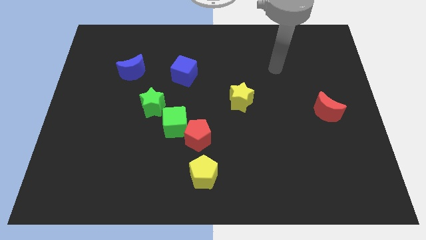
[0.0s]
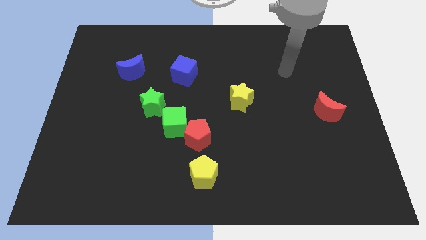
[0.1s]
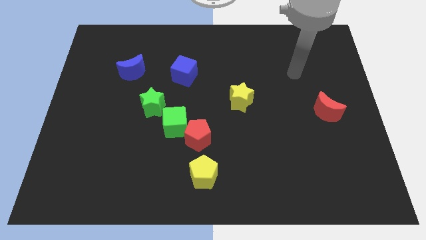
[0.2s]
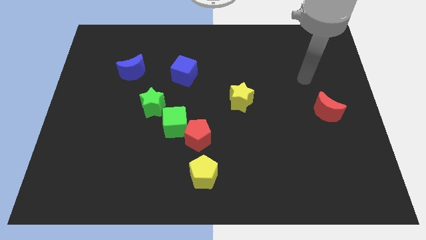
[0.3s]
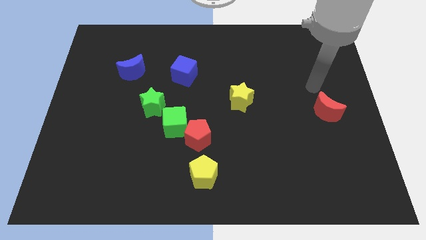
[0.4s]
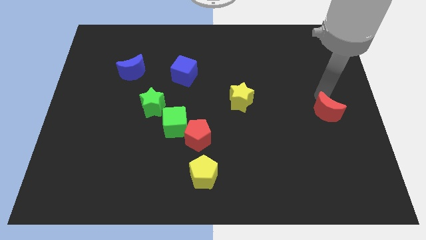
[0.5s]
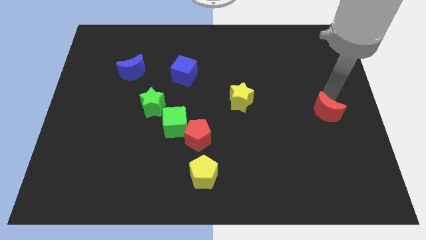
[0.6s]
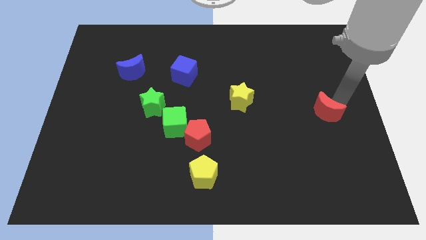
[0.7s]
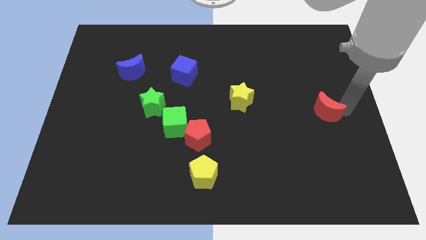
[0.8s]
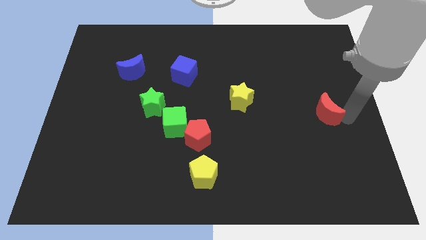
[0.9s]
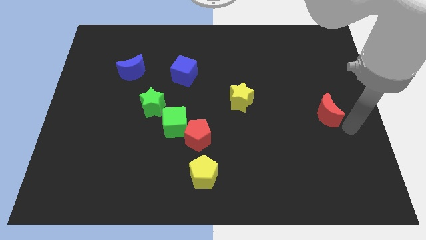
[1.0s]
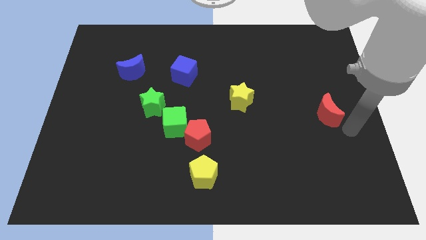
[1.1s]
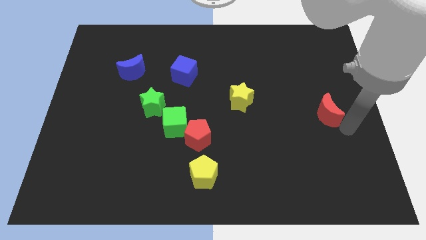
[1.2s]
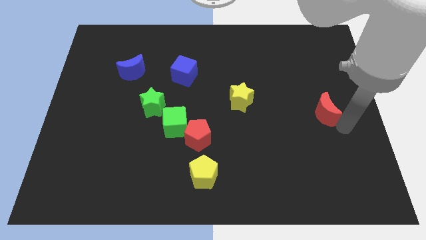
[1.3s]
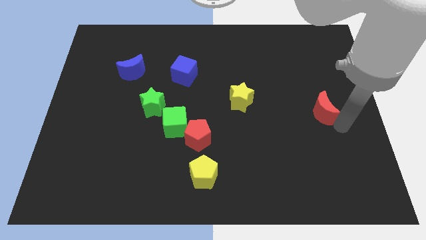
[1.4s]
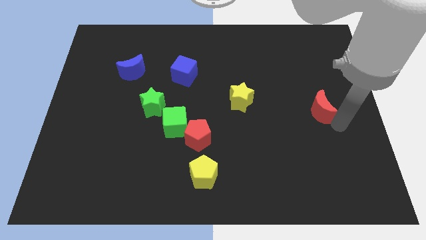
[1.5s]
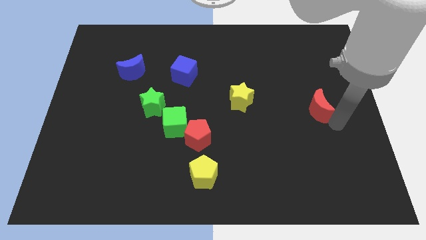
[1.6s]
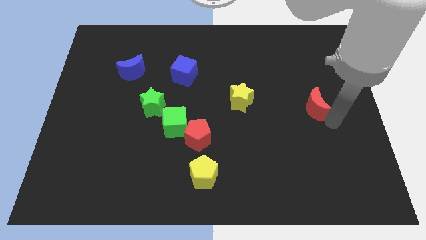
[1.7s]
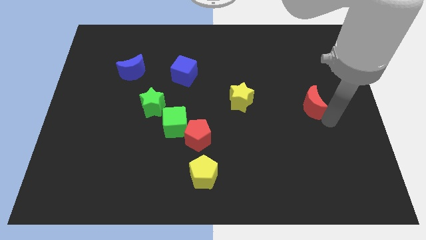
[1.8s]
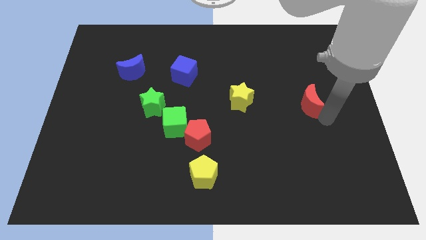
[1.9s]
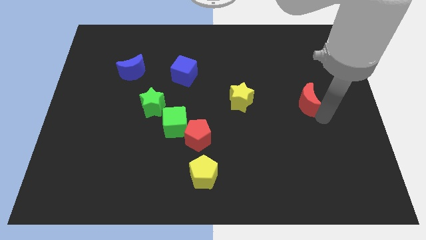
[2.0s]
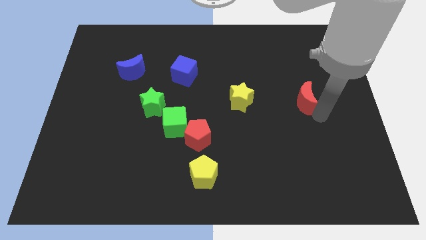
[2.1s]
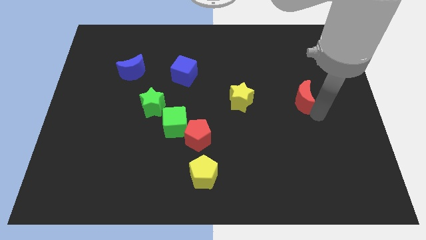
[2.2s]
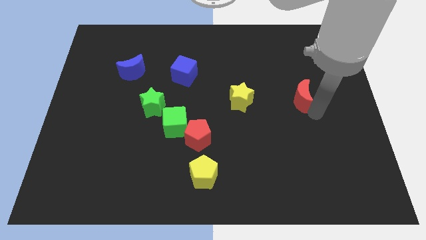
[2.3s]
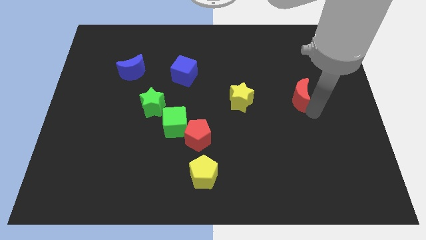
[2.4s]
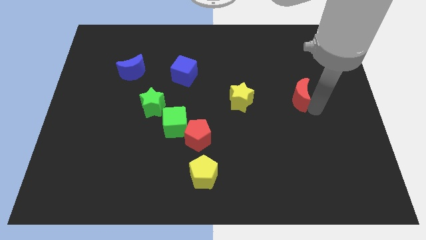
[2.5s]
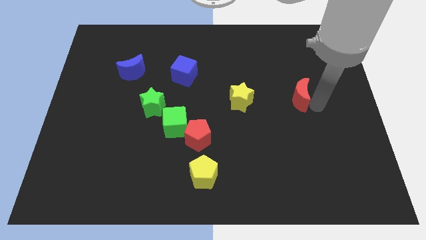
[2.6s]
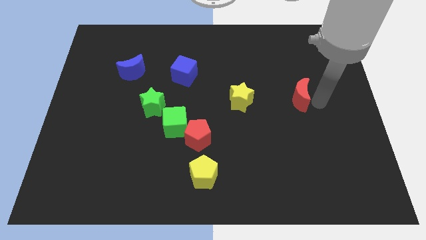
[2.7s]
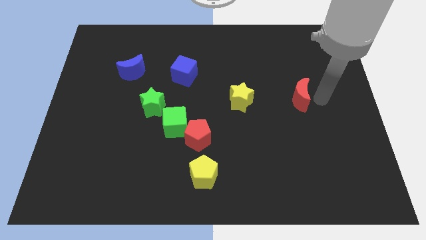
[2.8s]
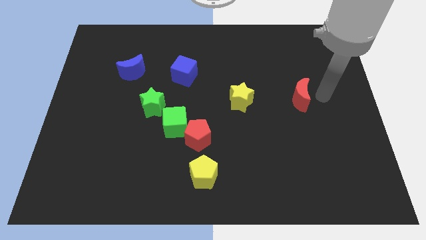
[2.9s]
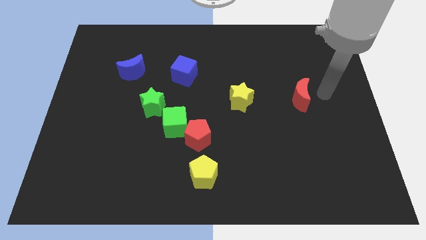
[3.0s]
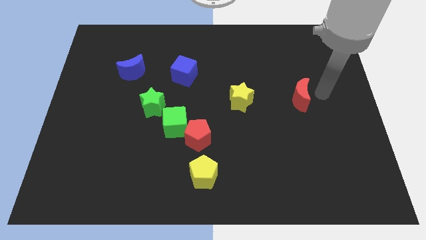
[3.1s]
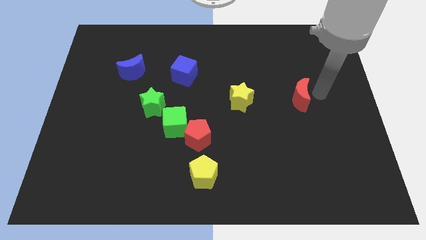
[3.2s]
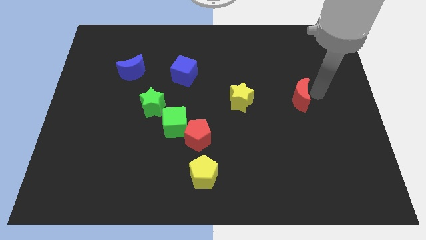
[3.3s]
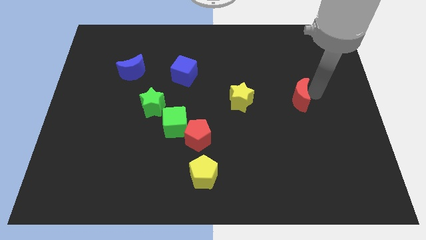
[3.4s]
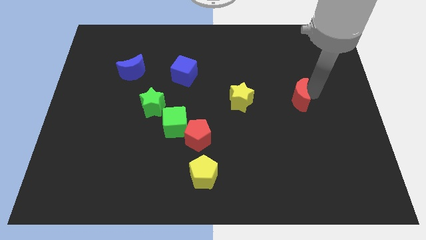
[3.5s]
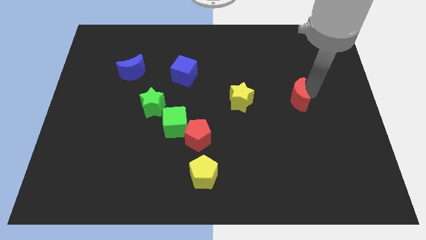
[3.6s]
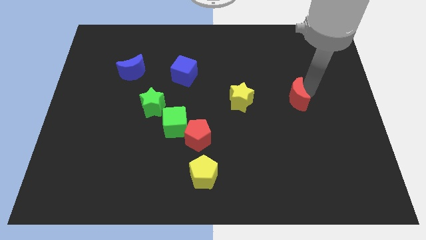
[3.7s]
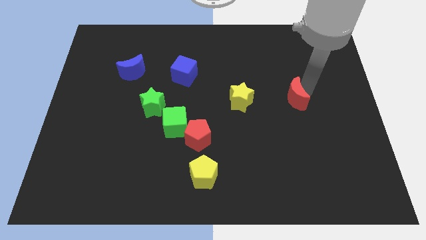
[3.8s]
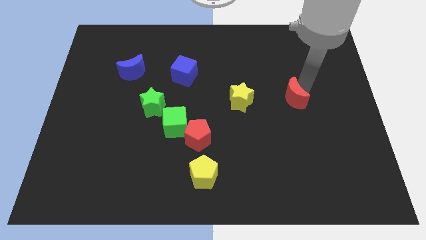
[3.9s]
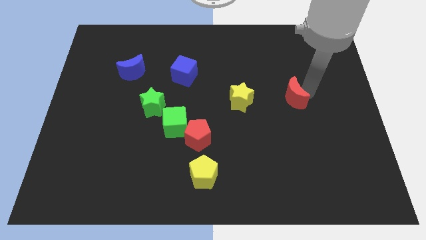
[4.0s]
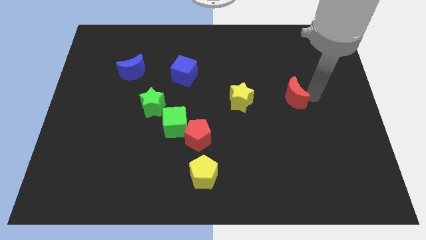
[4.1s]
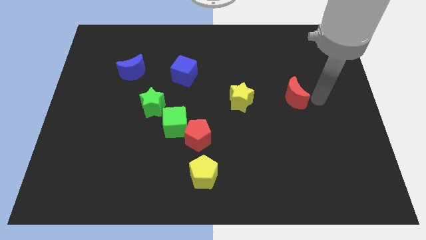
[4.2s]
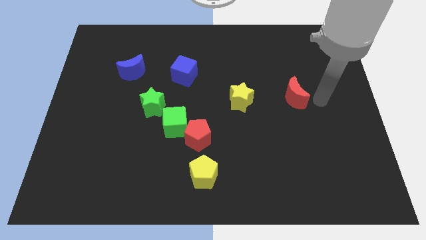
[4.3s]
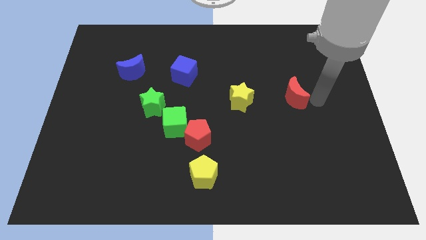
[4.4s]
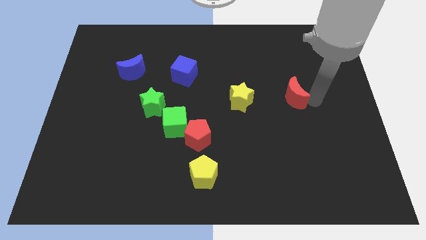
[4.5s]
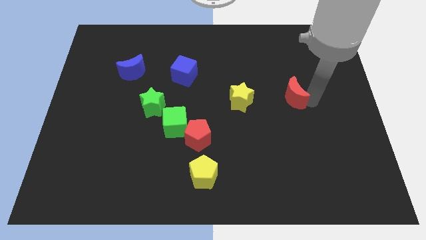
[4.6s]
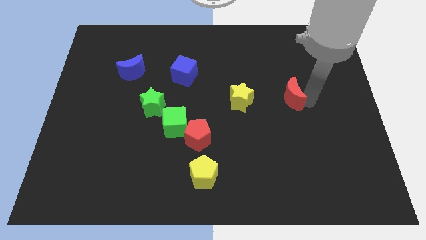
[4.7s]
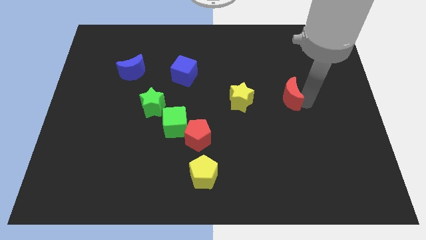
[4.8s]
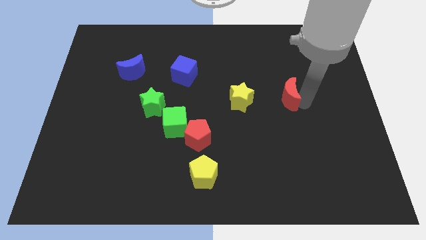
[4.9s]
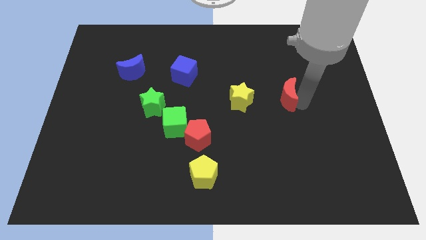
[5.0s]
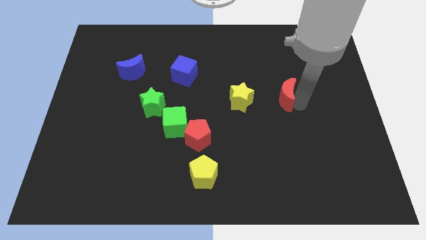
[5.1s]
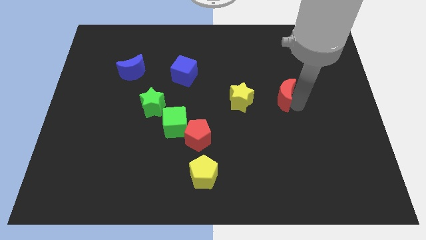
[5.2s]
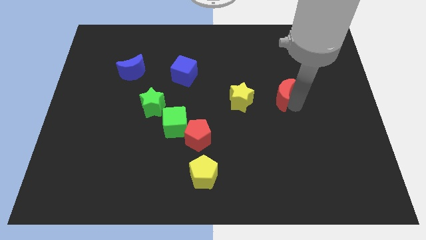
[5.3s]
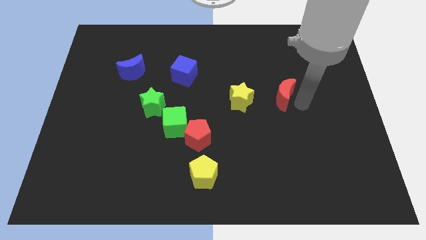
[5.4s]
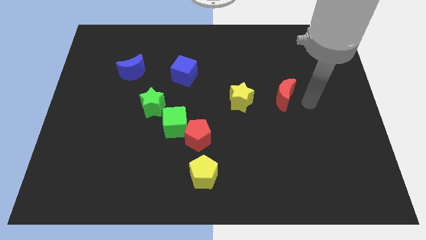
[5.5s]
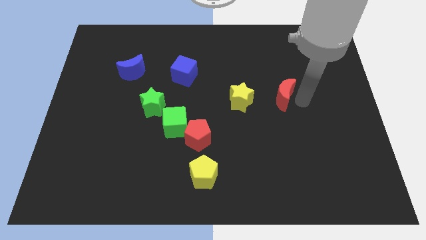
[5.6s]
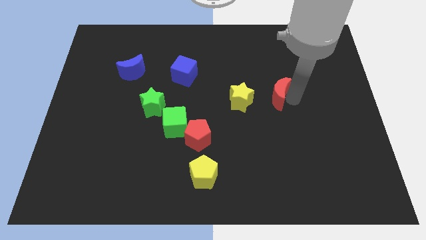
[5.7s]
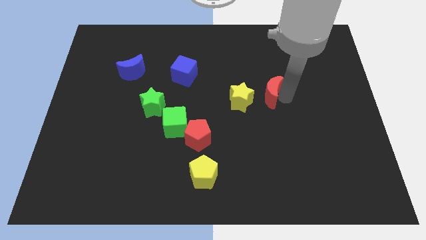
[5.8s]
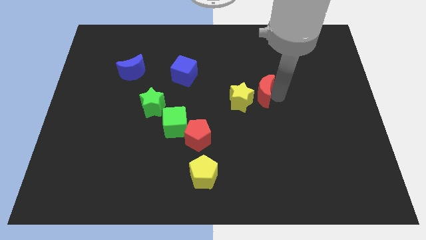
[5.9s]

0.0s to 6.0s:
slide the red moon to the middle

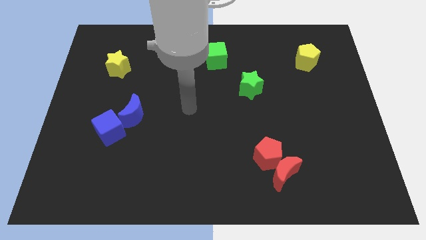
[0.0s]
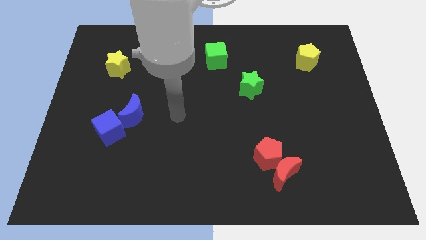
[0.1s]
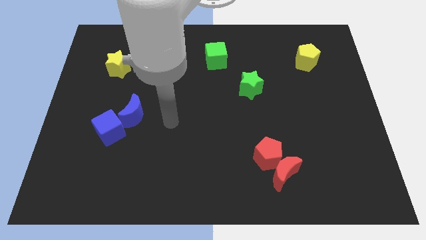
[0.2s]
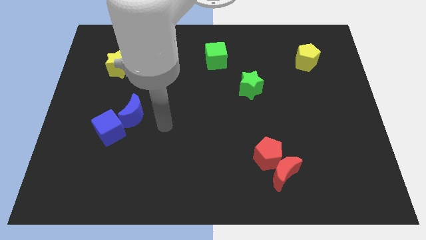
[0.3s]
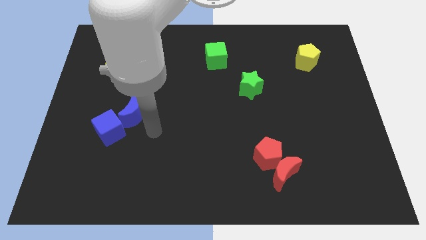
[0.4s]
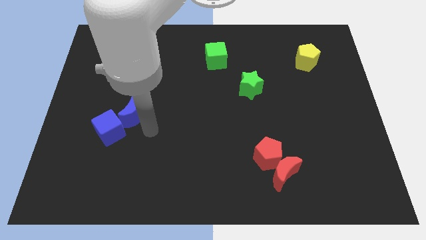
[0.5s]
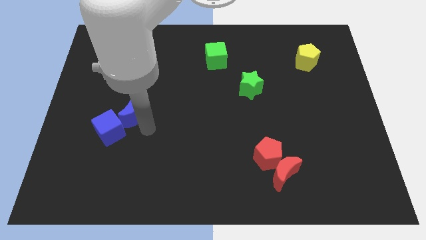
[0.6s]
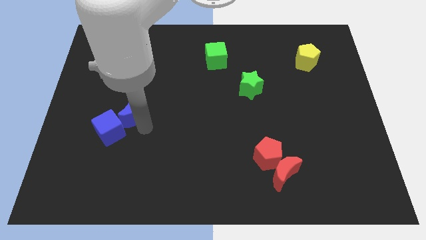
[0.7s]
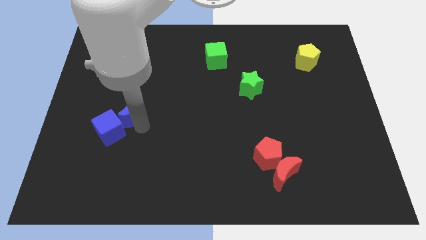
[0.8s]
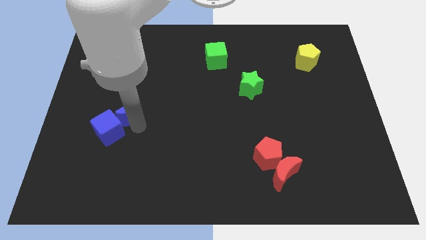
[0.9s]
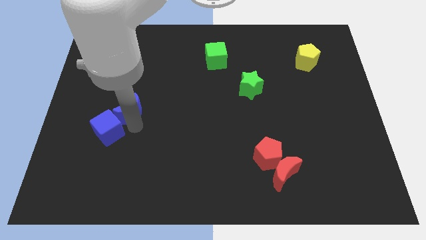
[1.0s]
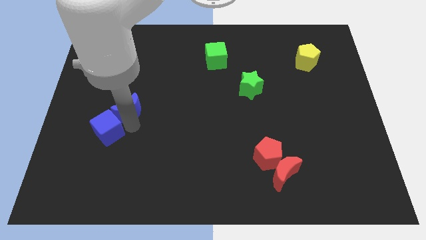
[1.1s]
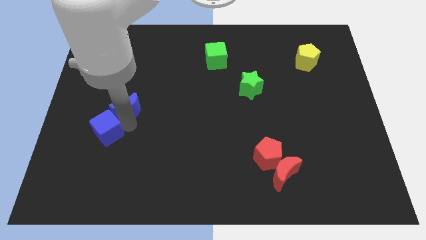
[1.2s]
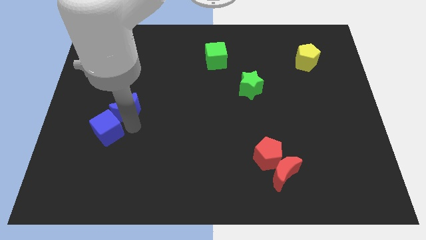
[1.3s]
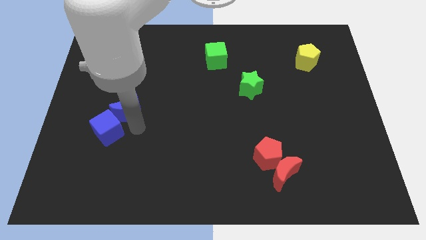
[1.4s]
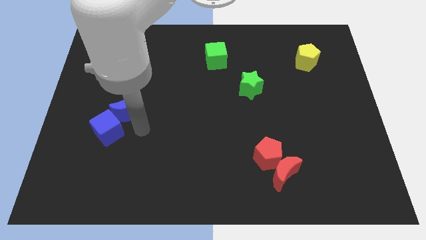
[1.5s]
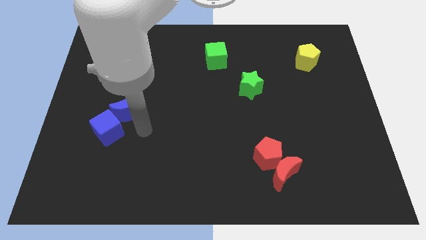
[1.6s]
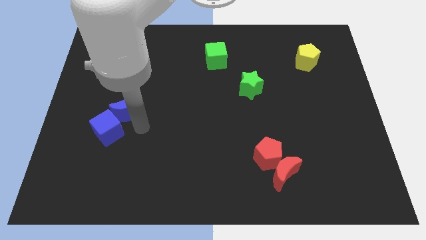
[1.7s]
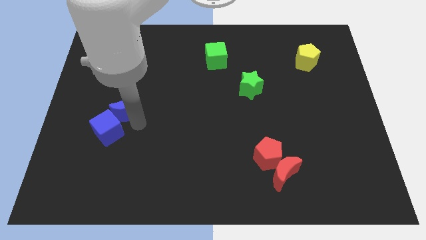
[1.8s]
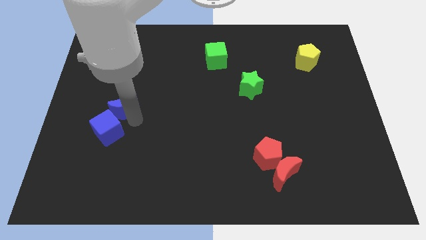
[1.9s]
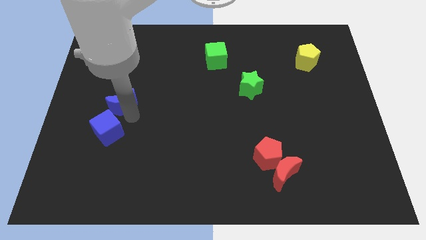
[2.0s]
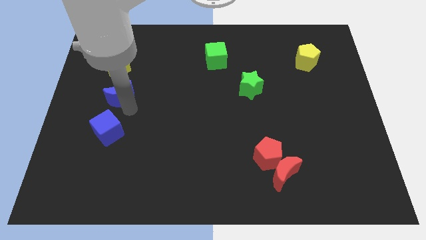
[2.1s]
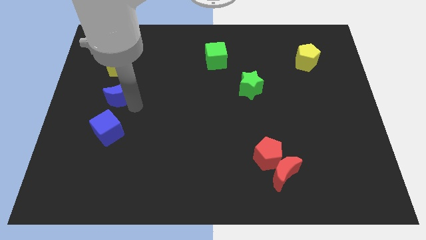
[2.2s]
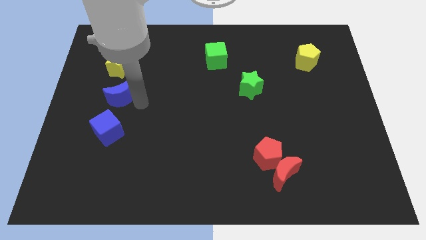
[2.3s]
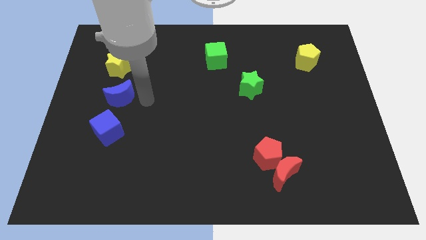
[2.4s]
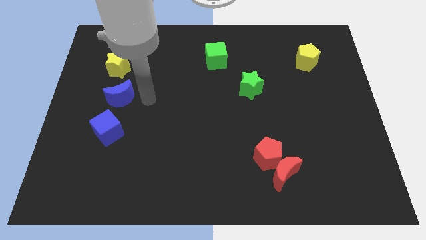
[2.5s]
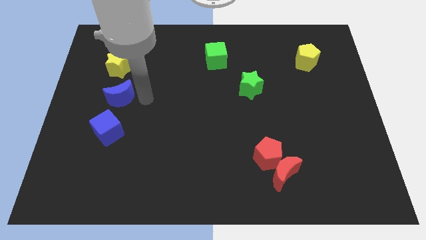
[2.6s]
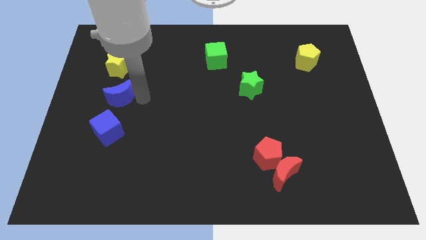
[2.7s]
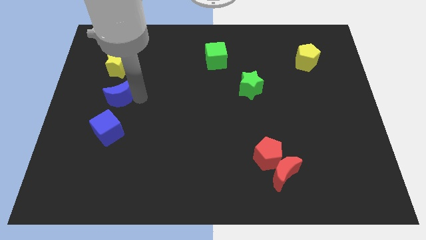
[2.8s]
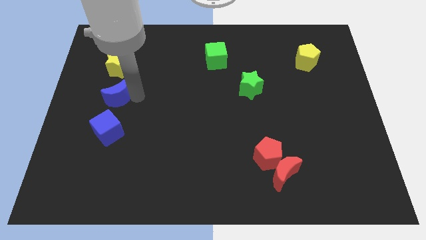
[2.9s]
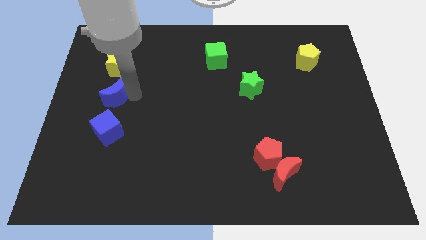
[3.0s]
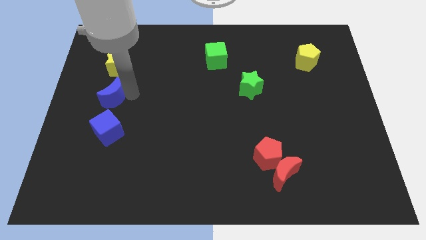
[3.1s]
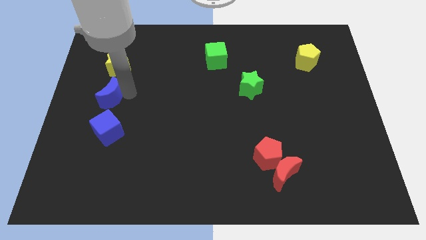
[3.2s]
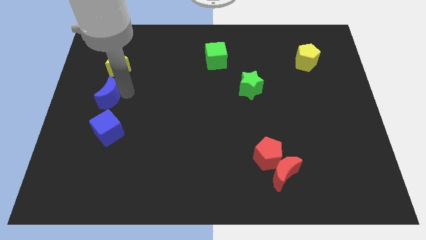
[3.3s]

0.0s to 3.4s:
move the blue moon to the left side
